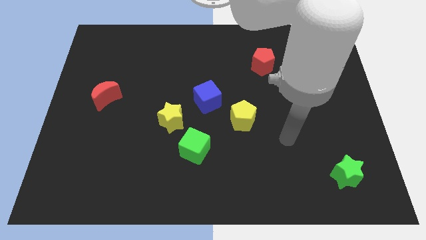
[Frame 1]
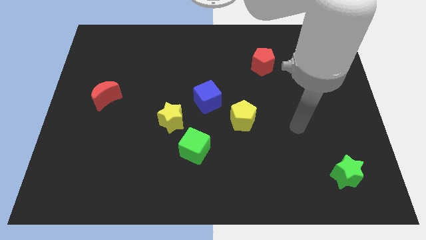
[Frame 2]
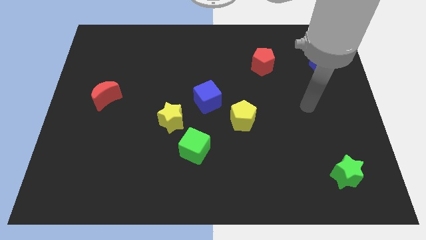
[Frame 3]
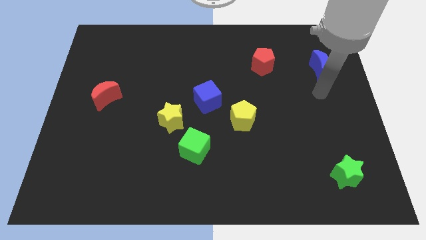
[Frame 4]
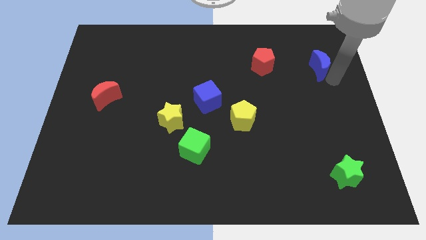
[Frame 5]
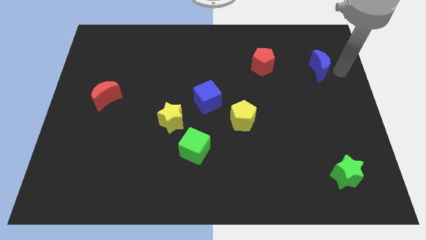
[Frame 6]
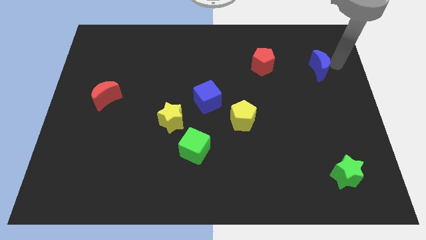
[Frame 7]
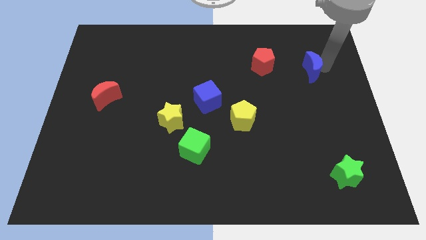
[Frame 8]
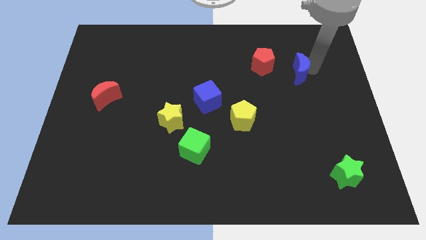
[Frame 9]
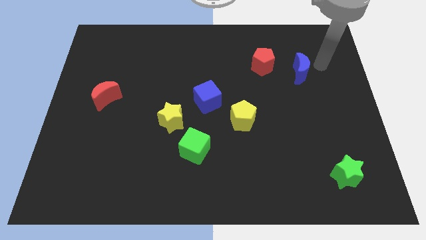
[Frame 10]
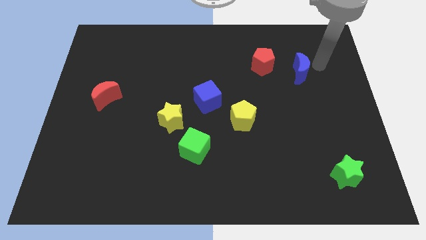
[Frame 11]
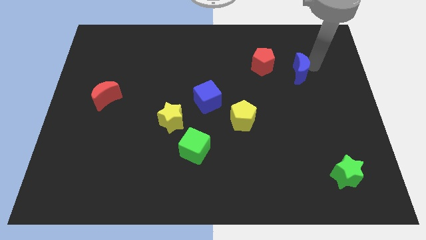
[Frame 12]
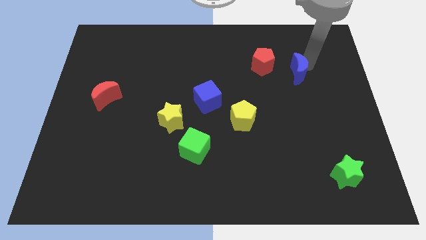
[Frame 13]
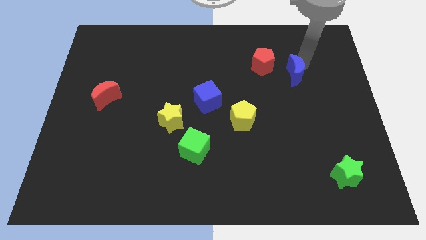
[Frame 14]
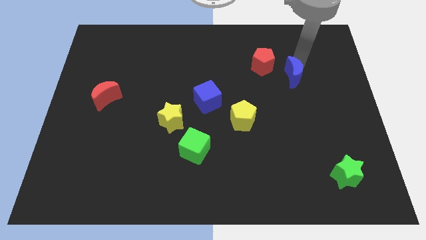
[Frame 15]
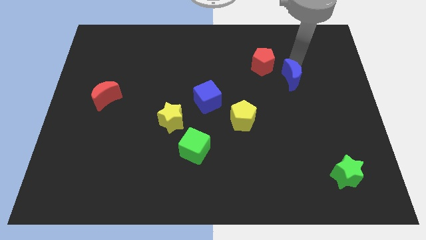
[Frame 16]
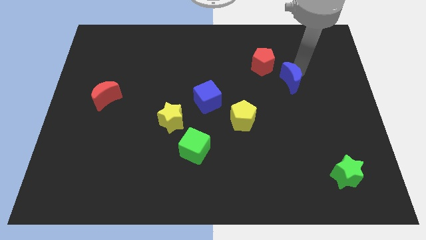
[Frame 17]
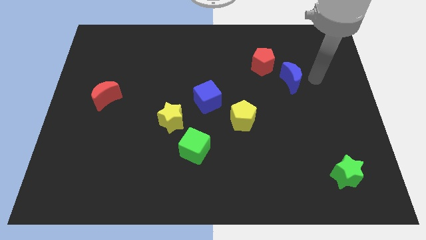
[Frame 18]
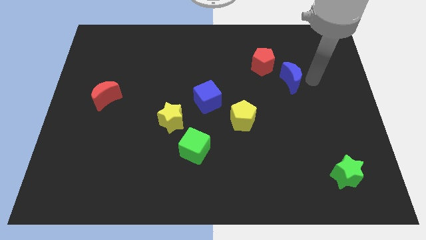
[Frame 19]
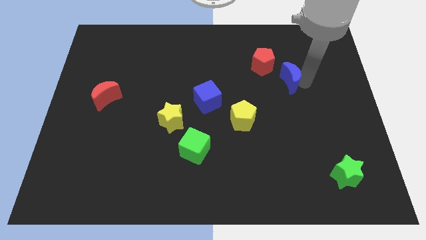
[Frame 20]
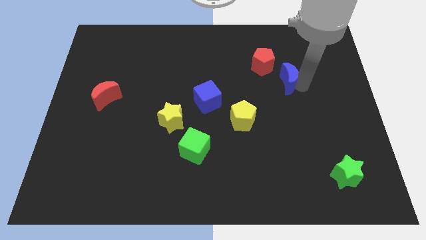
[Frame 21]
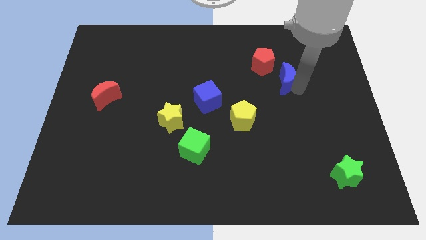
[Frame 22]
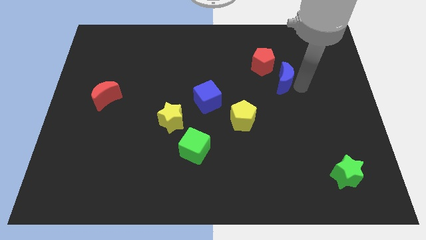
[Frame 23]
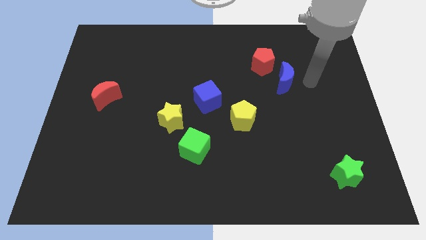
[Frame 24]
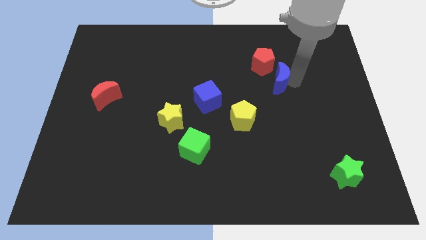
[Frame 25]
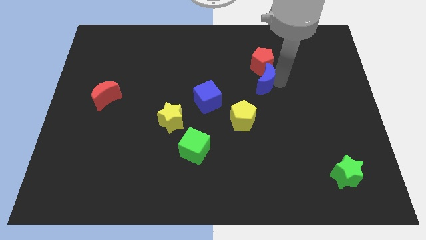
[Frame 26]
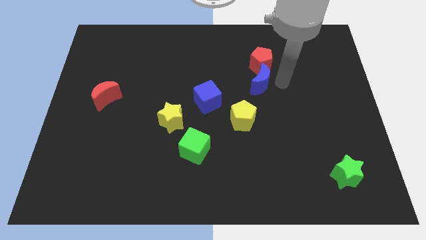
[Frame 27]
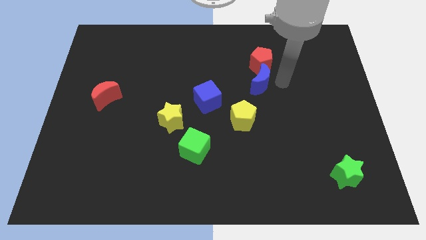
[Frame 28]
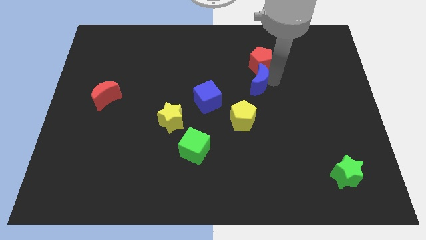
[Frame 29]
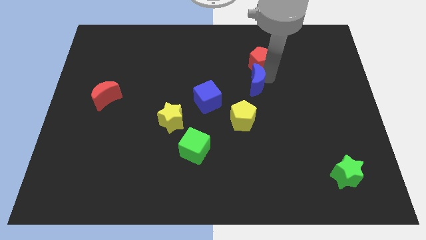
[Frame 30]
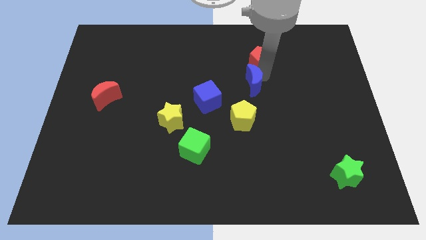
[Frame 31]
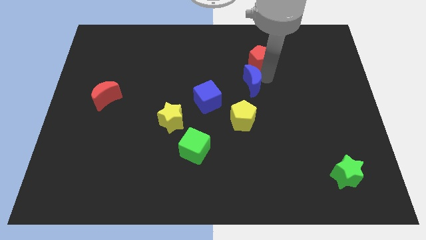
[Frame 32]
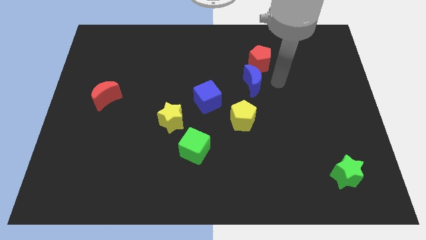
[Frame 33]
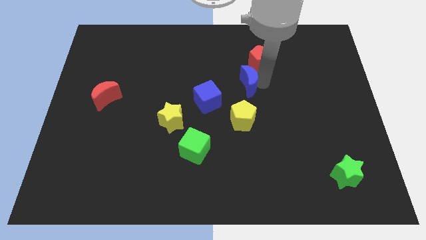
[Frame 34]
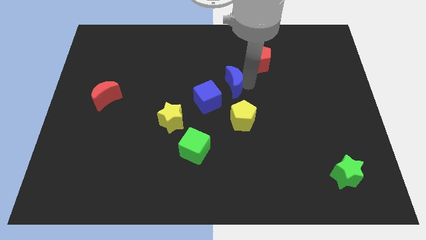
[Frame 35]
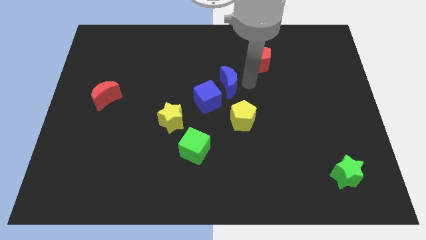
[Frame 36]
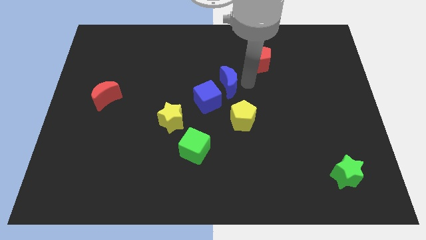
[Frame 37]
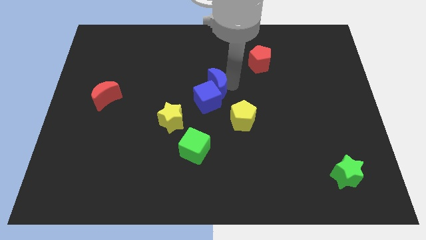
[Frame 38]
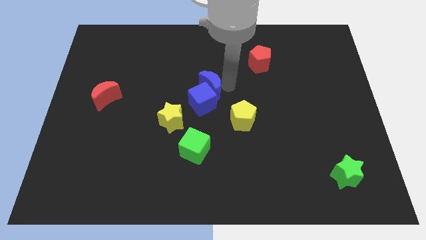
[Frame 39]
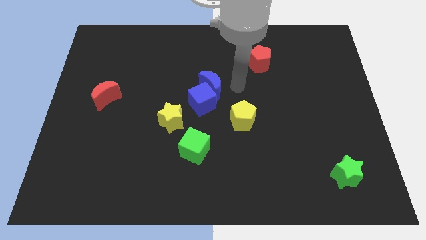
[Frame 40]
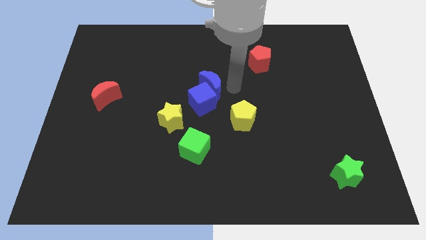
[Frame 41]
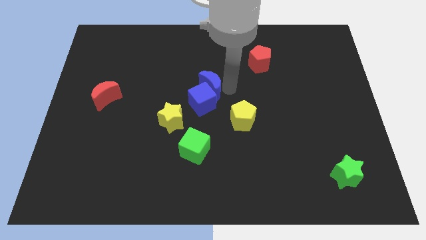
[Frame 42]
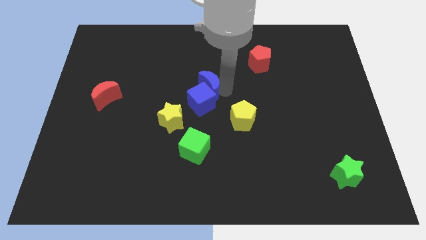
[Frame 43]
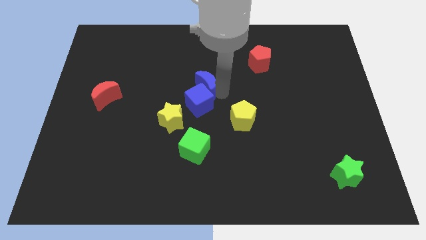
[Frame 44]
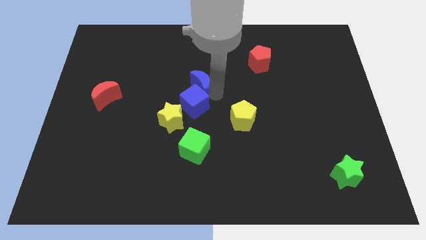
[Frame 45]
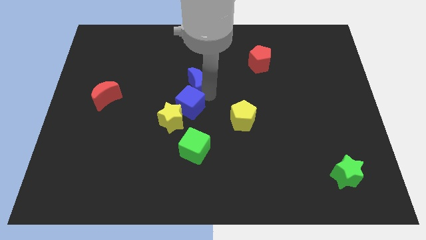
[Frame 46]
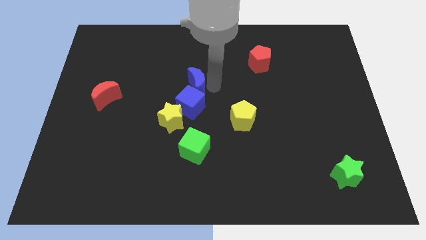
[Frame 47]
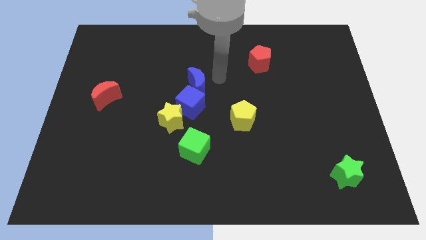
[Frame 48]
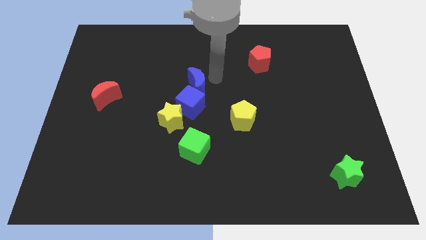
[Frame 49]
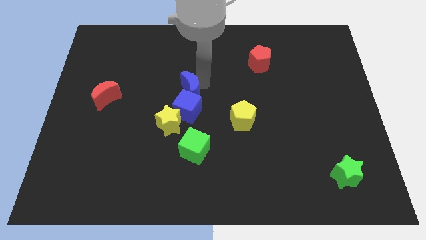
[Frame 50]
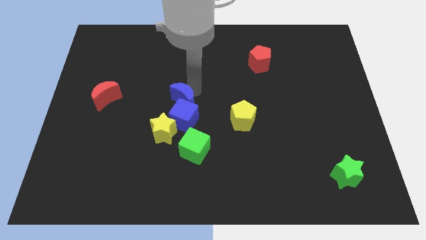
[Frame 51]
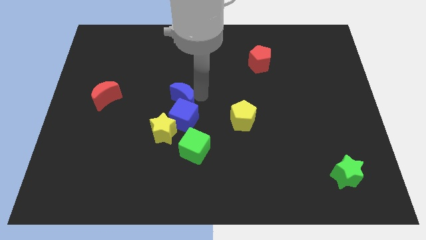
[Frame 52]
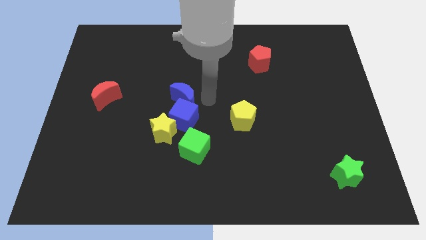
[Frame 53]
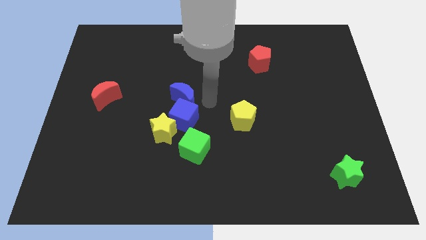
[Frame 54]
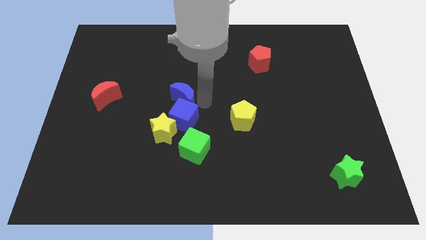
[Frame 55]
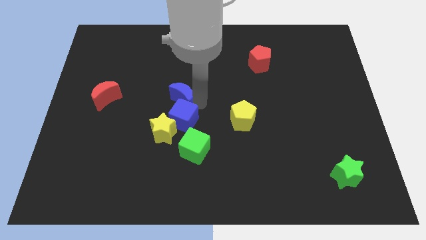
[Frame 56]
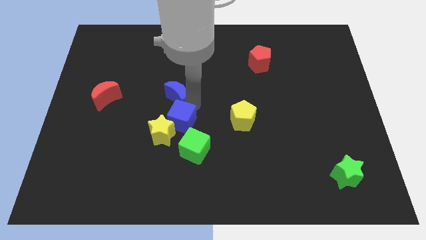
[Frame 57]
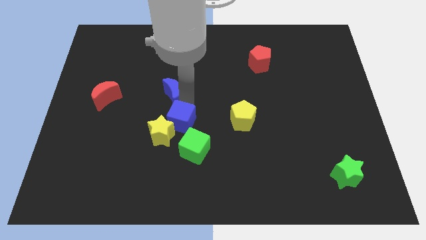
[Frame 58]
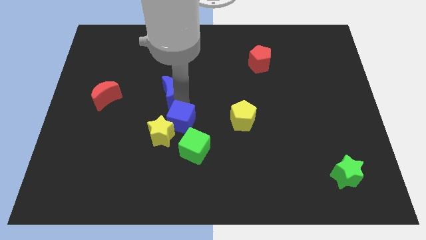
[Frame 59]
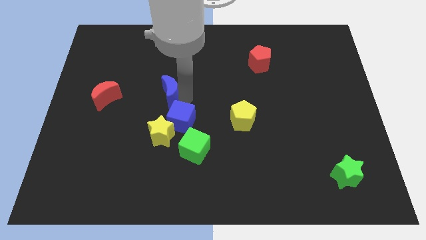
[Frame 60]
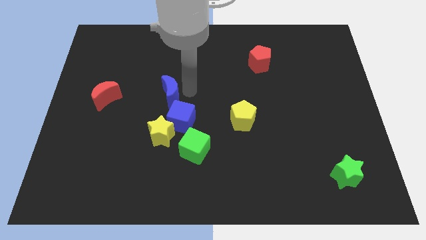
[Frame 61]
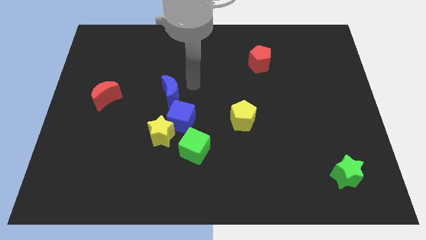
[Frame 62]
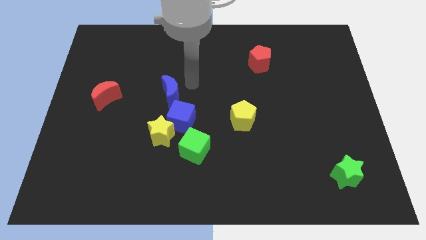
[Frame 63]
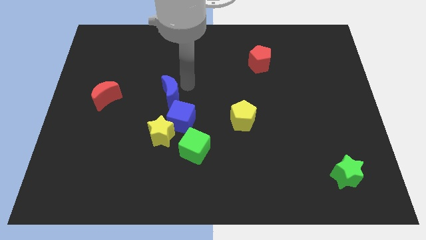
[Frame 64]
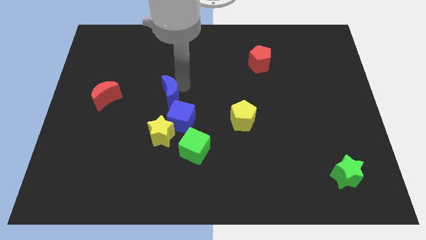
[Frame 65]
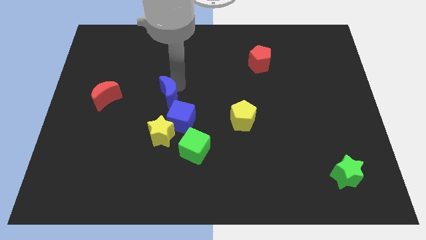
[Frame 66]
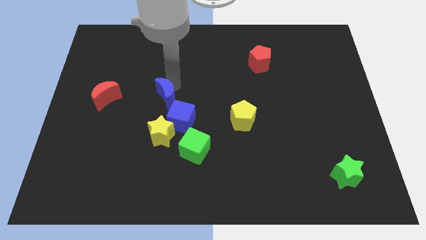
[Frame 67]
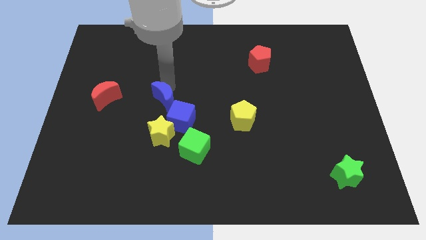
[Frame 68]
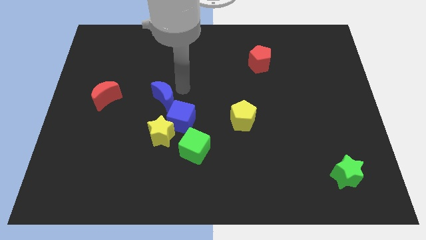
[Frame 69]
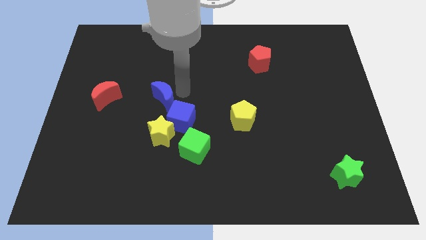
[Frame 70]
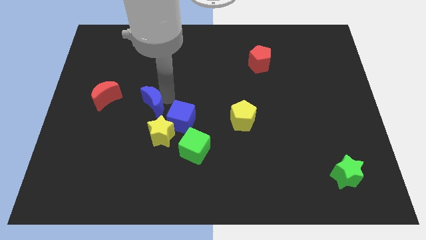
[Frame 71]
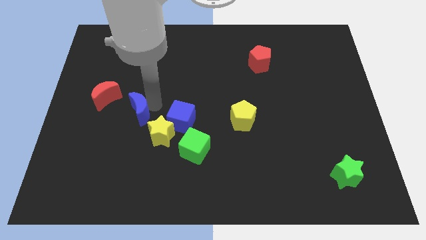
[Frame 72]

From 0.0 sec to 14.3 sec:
put the blue moon diagonally down and to the right of the red moon

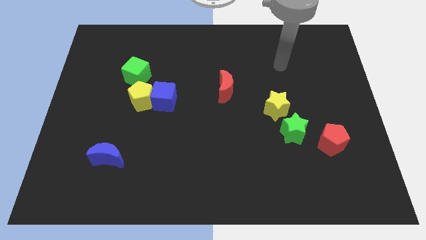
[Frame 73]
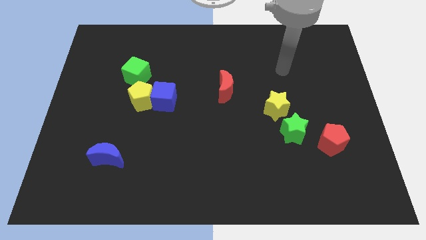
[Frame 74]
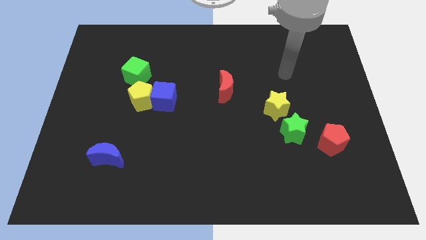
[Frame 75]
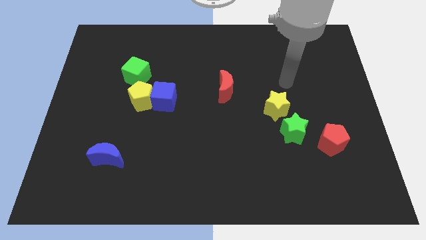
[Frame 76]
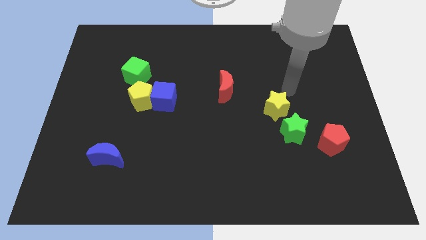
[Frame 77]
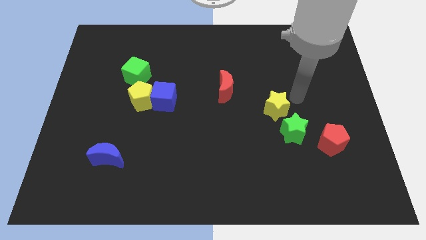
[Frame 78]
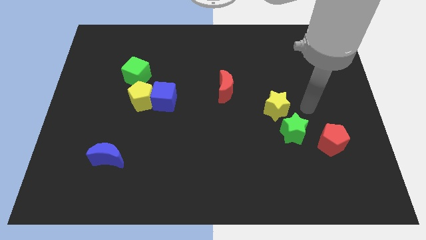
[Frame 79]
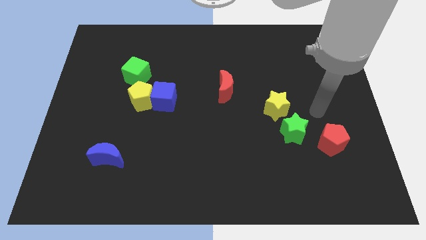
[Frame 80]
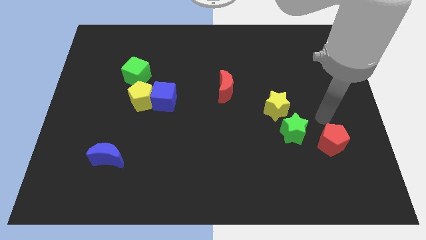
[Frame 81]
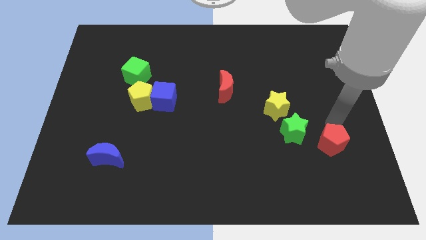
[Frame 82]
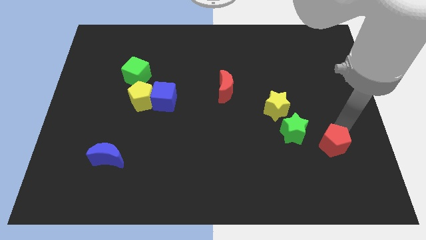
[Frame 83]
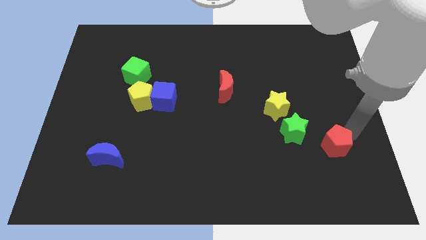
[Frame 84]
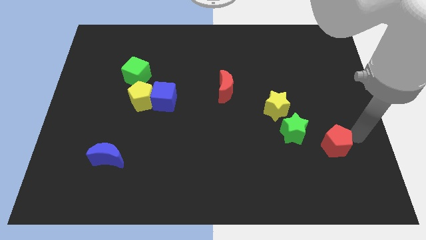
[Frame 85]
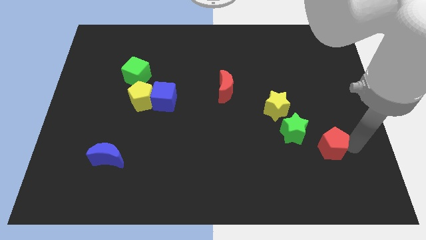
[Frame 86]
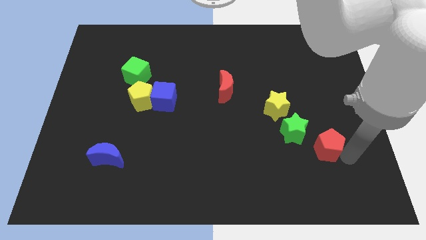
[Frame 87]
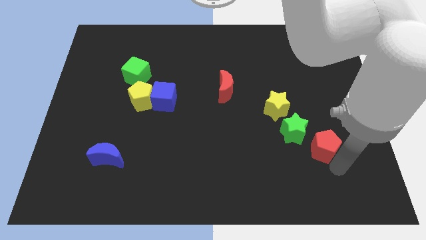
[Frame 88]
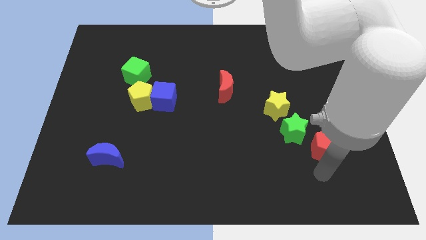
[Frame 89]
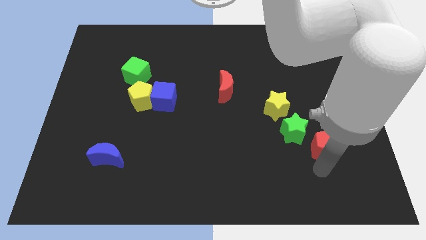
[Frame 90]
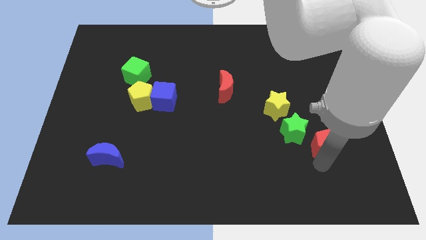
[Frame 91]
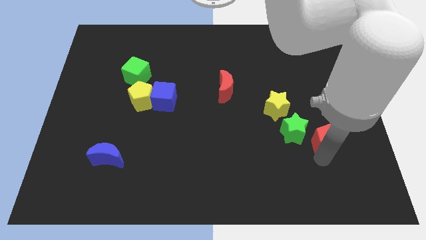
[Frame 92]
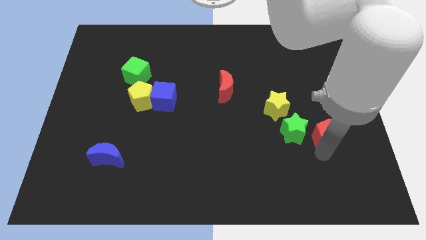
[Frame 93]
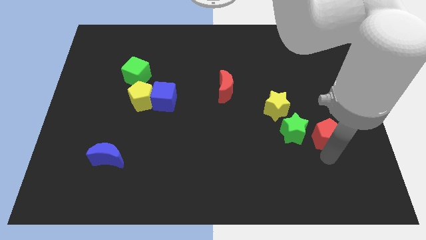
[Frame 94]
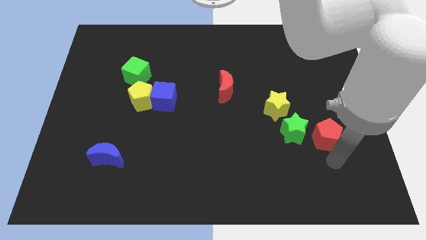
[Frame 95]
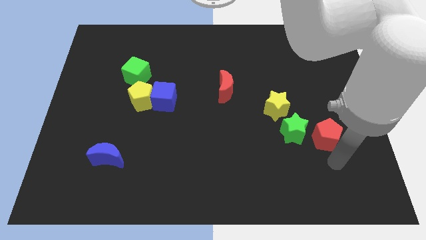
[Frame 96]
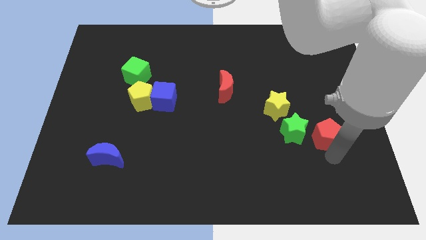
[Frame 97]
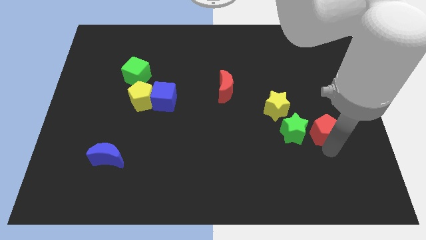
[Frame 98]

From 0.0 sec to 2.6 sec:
put the red pentagon diagonally up and to the right of the green star
